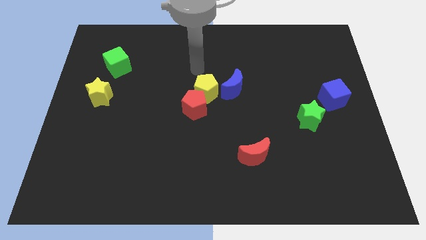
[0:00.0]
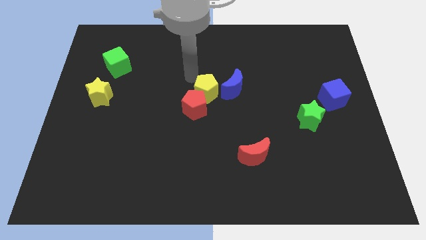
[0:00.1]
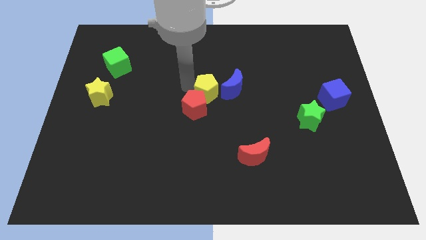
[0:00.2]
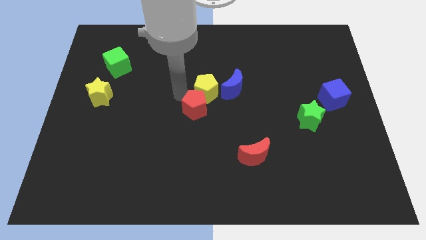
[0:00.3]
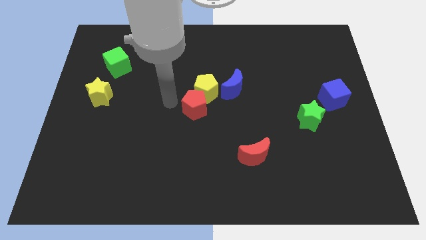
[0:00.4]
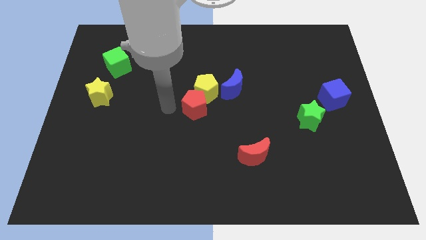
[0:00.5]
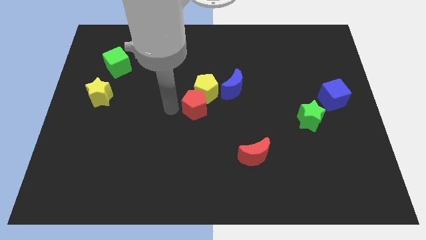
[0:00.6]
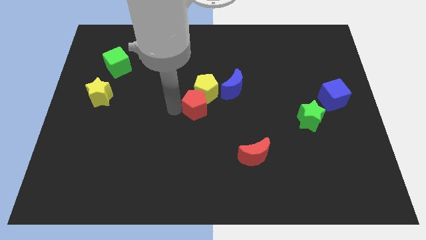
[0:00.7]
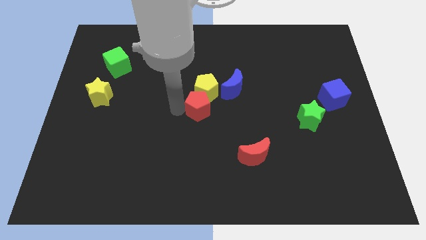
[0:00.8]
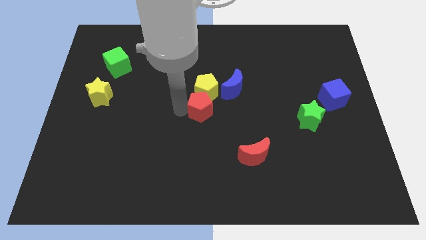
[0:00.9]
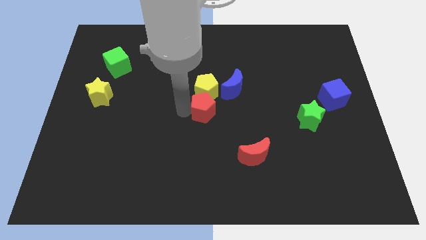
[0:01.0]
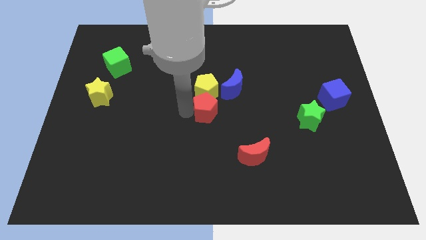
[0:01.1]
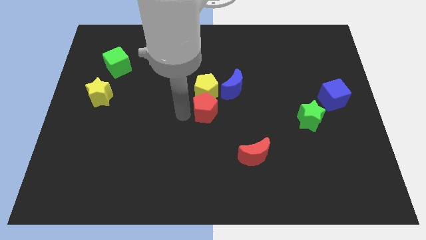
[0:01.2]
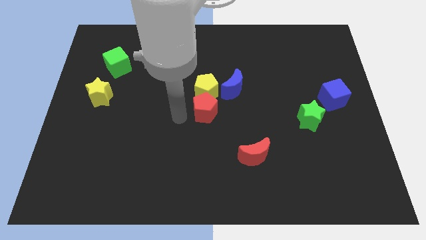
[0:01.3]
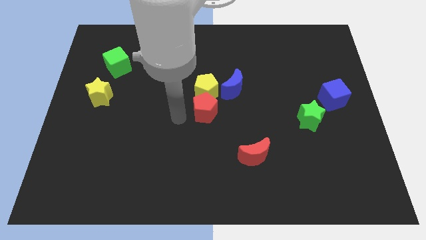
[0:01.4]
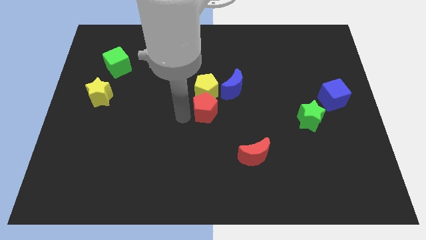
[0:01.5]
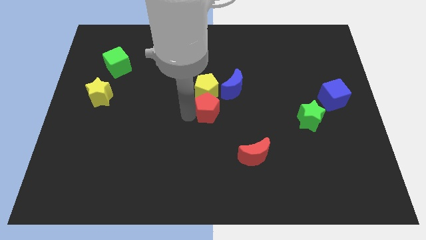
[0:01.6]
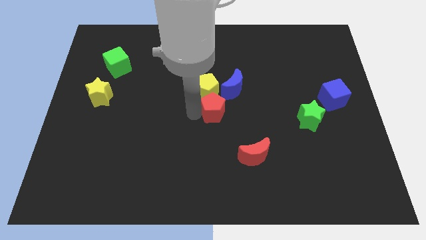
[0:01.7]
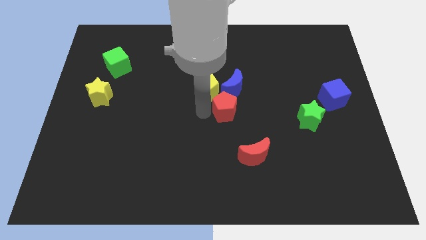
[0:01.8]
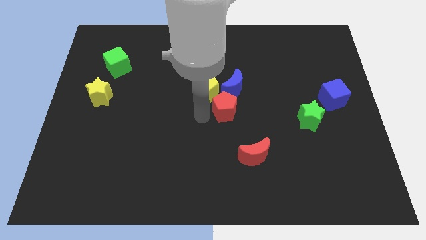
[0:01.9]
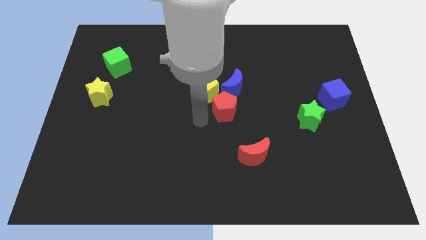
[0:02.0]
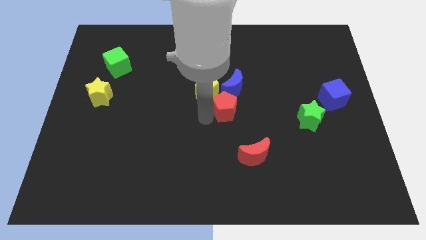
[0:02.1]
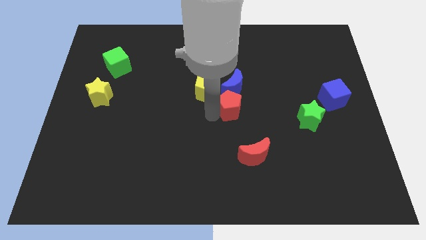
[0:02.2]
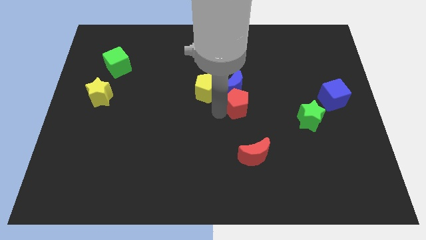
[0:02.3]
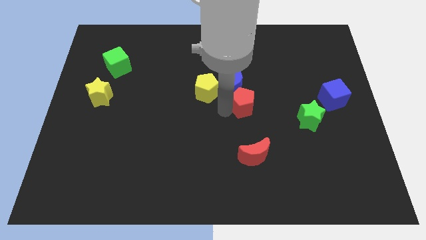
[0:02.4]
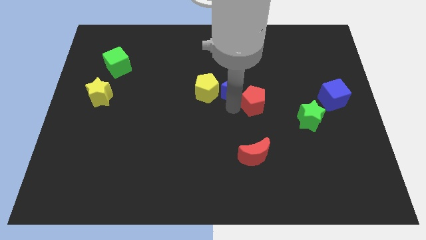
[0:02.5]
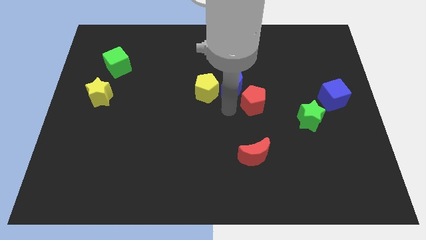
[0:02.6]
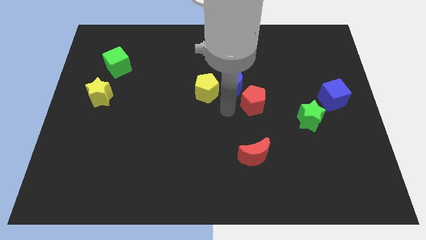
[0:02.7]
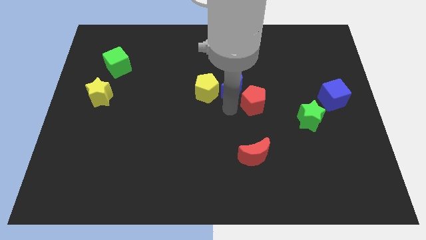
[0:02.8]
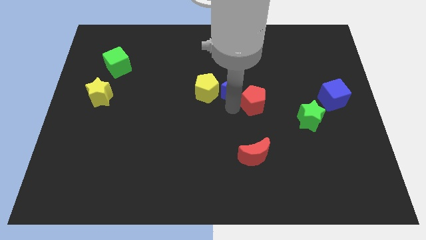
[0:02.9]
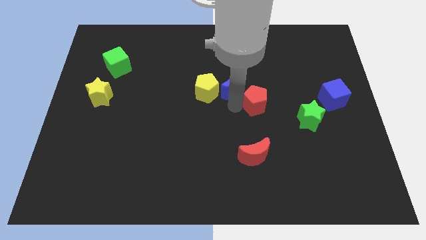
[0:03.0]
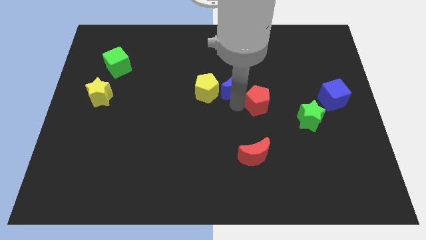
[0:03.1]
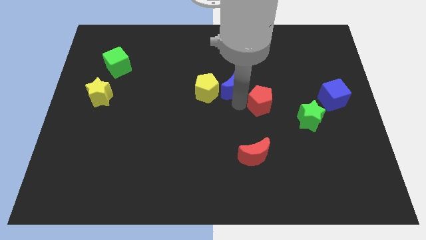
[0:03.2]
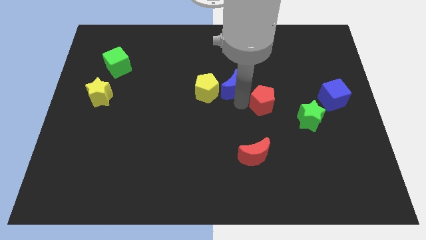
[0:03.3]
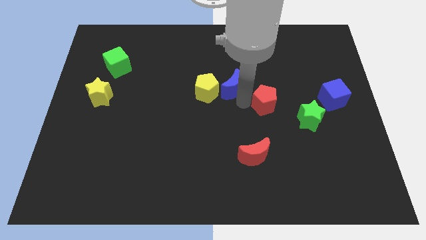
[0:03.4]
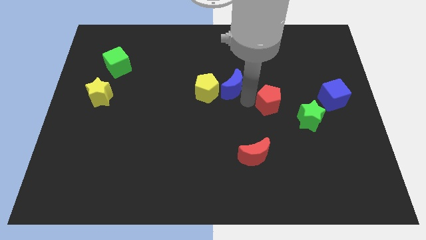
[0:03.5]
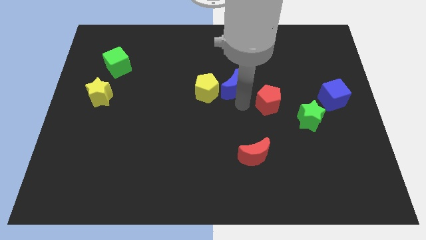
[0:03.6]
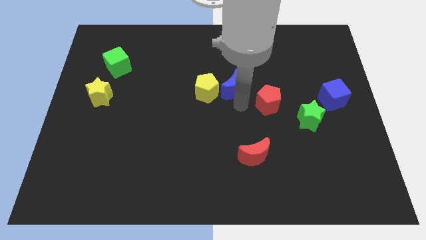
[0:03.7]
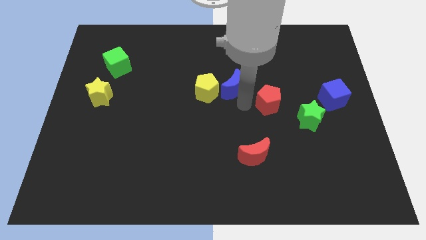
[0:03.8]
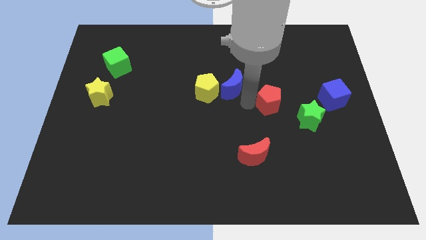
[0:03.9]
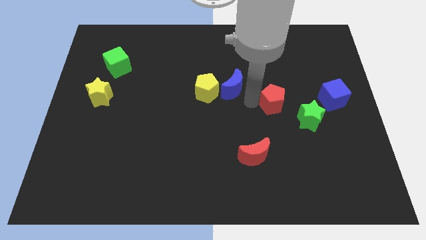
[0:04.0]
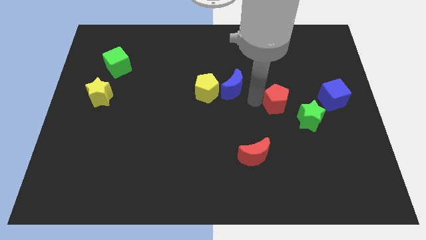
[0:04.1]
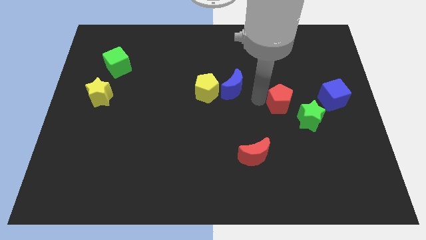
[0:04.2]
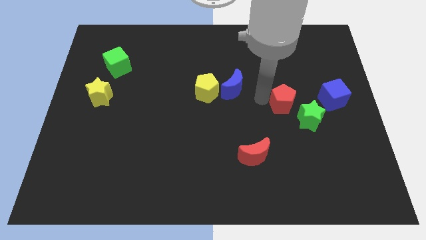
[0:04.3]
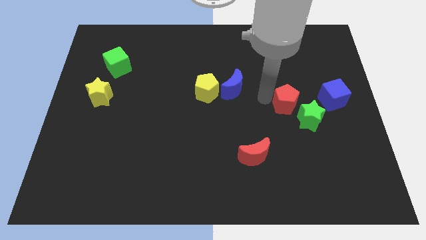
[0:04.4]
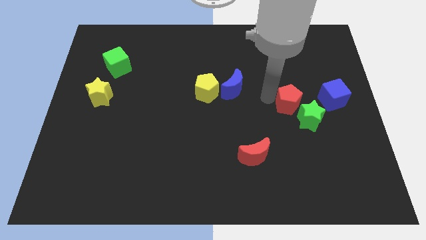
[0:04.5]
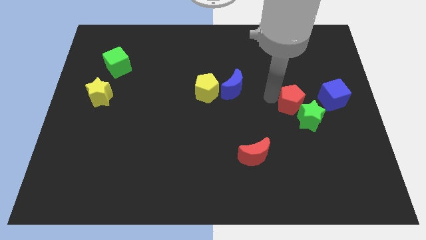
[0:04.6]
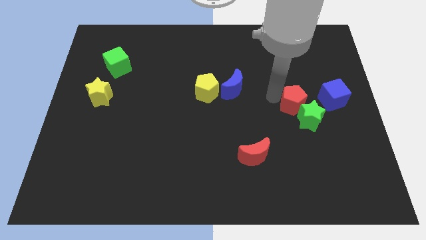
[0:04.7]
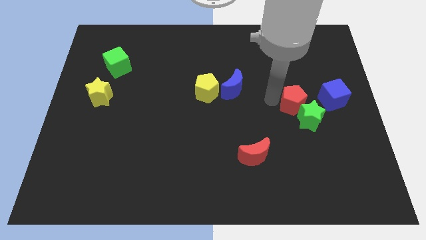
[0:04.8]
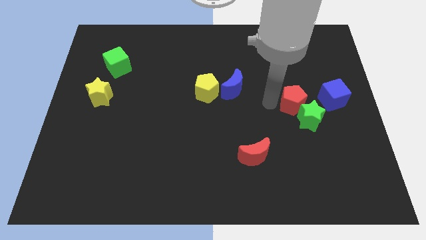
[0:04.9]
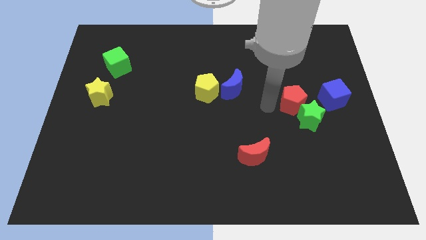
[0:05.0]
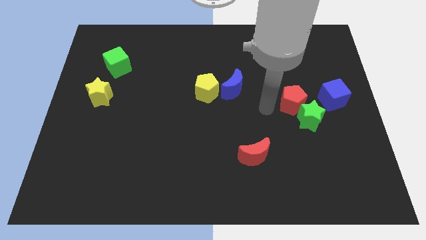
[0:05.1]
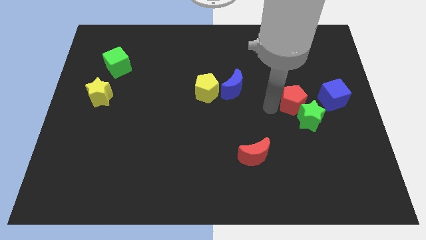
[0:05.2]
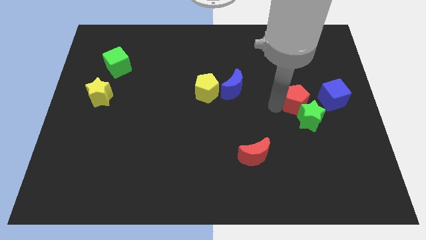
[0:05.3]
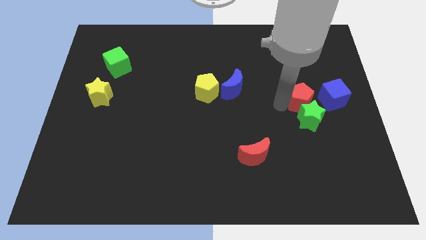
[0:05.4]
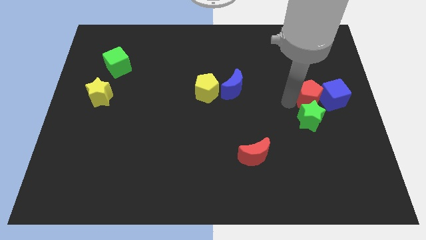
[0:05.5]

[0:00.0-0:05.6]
move the red pentagon next to the blue cube

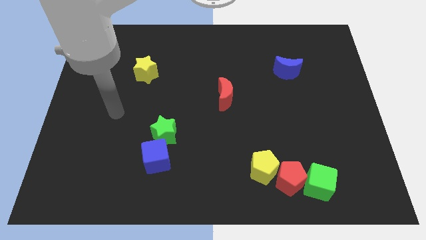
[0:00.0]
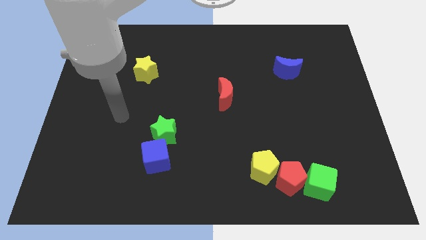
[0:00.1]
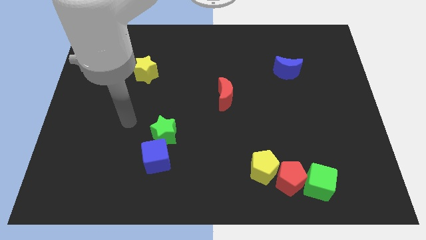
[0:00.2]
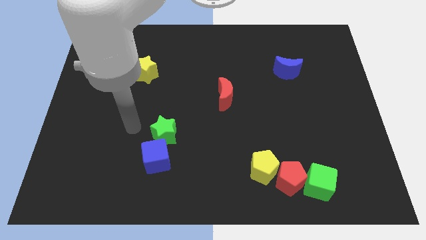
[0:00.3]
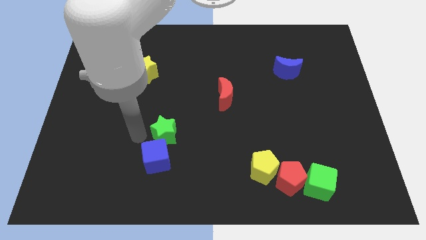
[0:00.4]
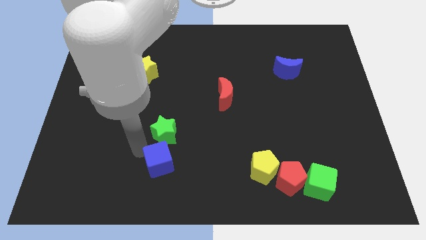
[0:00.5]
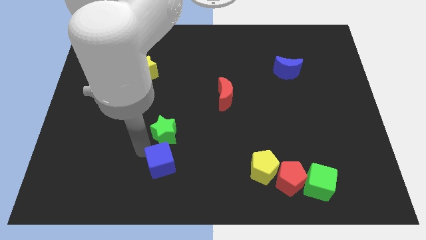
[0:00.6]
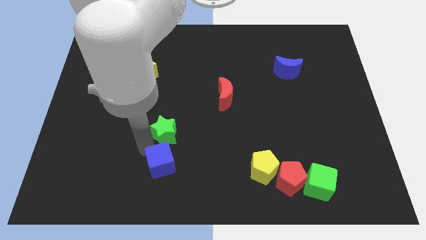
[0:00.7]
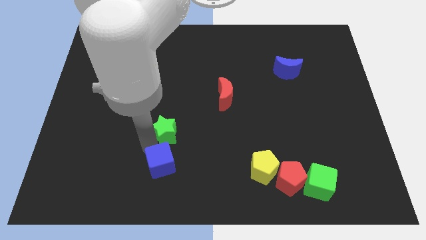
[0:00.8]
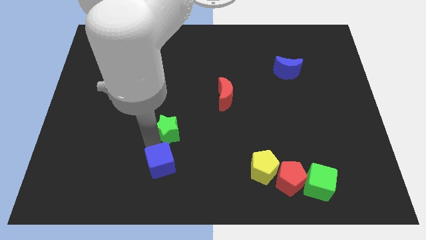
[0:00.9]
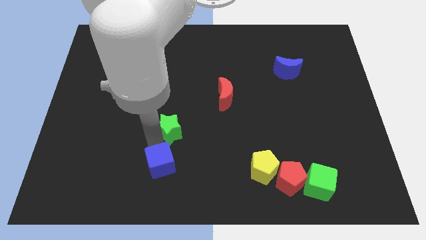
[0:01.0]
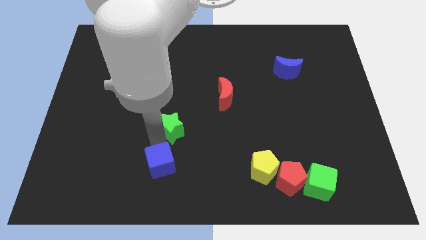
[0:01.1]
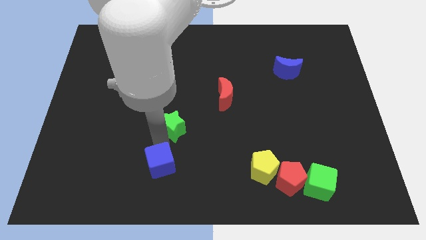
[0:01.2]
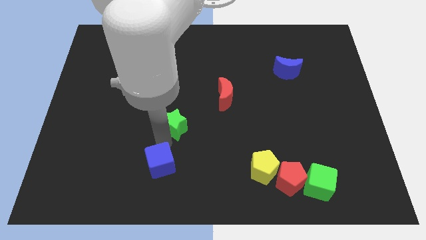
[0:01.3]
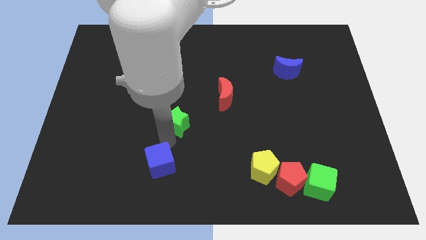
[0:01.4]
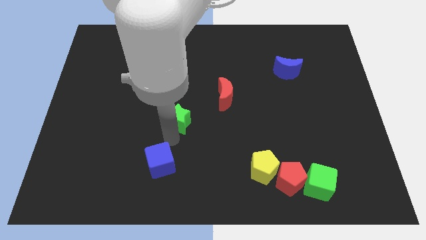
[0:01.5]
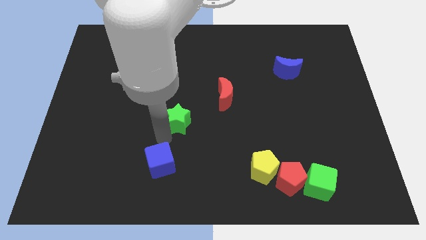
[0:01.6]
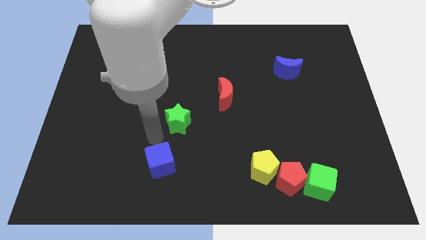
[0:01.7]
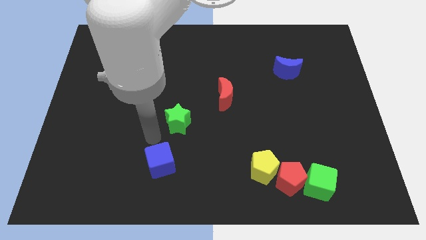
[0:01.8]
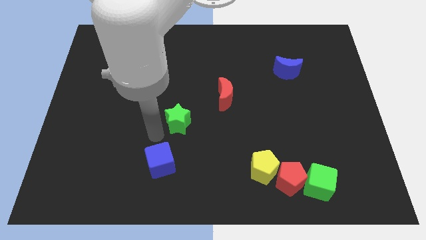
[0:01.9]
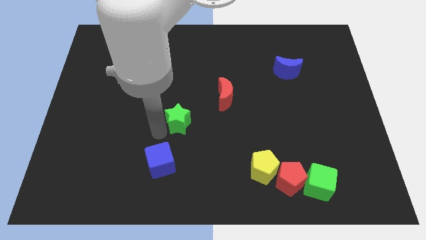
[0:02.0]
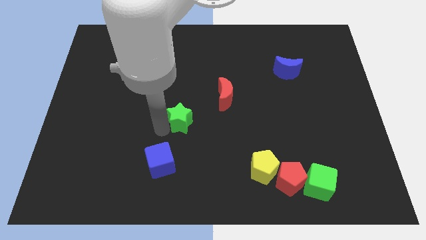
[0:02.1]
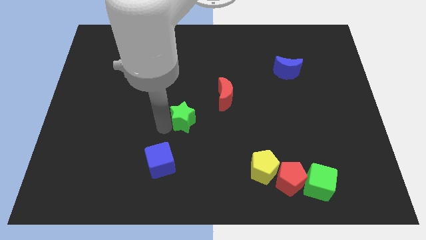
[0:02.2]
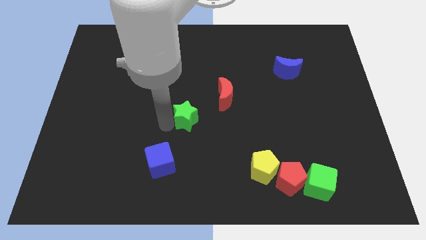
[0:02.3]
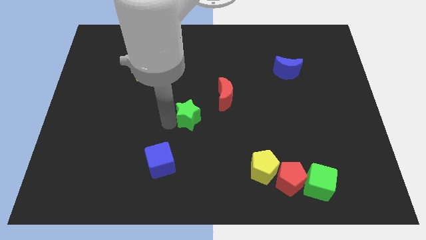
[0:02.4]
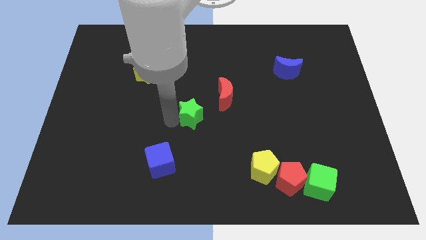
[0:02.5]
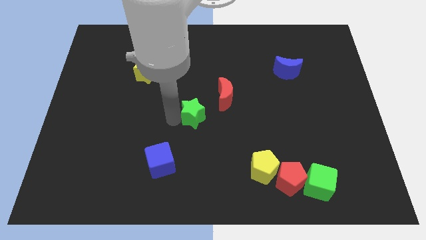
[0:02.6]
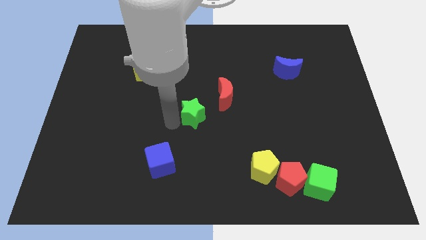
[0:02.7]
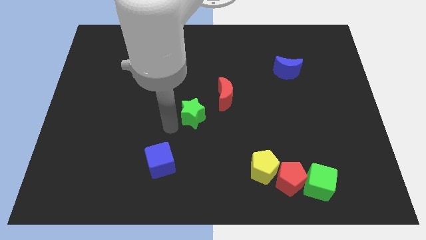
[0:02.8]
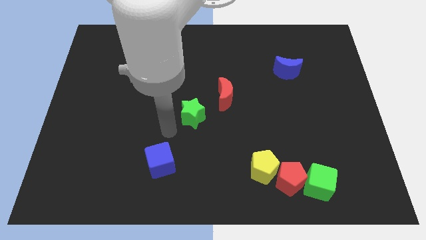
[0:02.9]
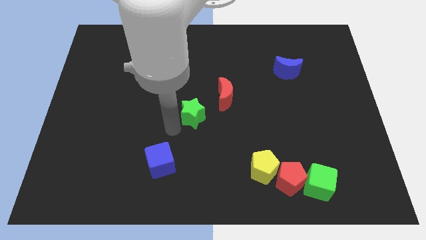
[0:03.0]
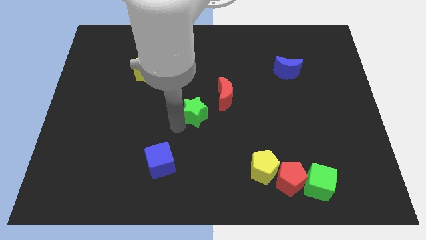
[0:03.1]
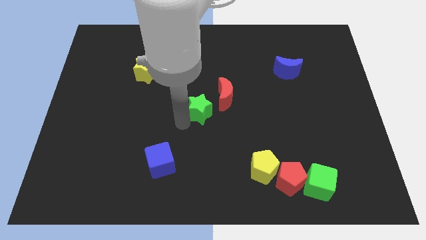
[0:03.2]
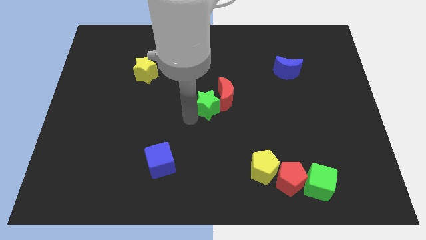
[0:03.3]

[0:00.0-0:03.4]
move the green star close to the red moon
